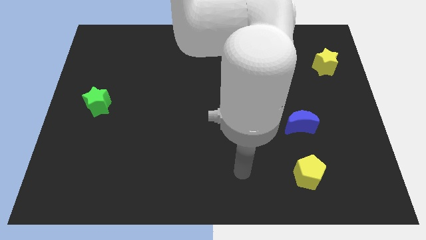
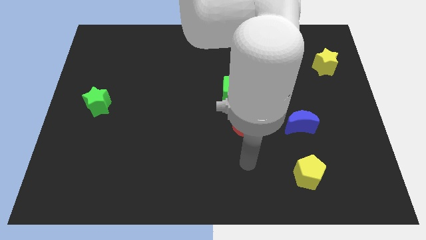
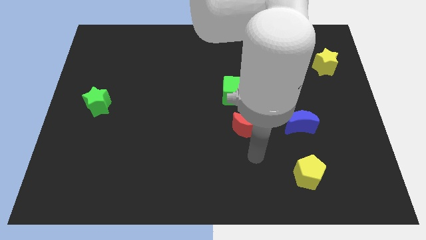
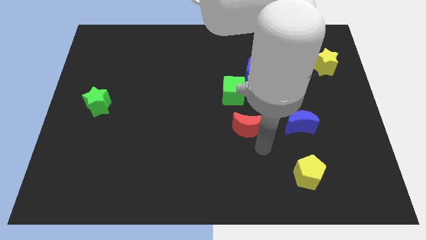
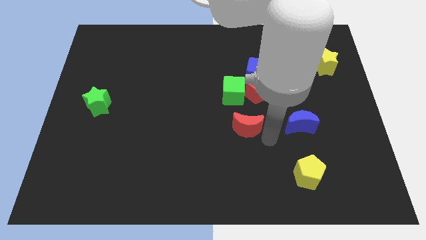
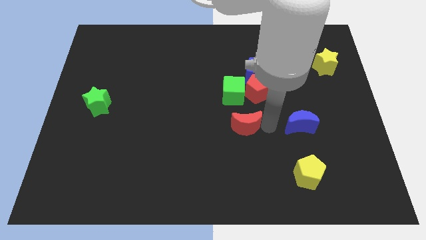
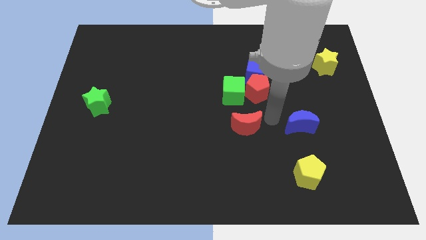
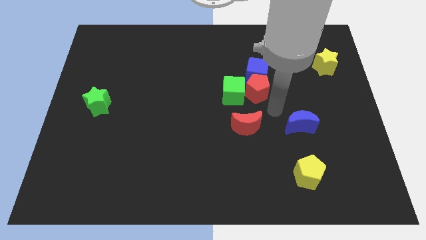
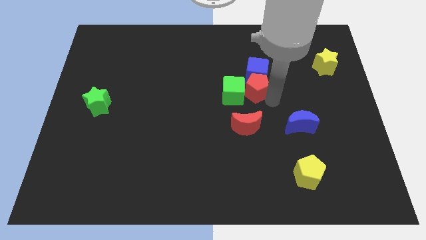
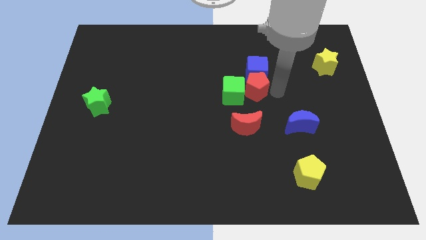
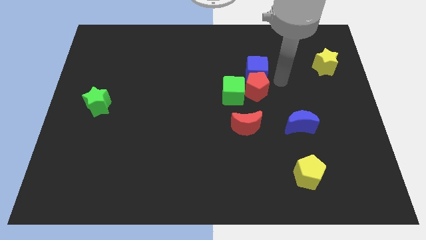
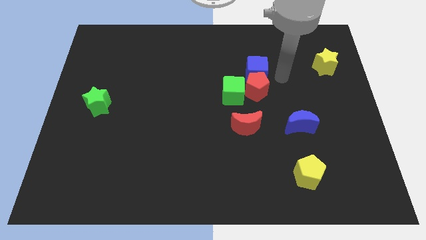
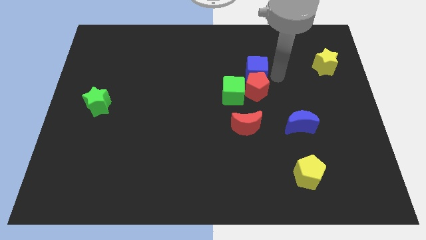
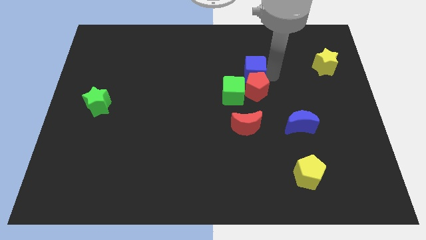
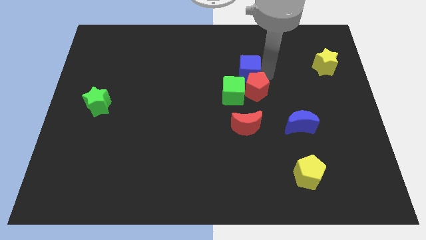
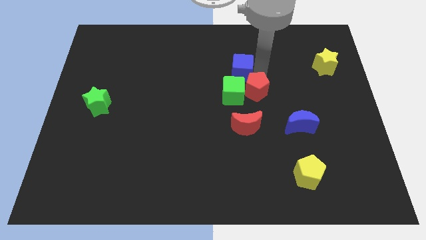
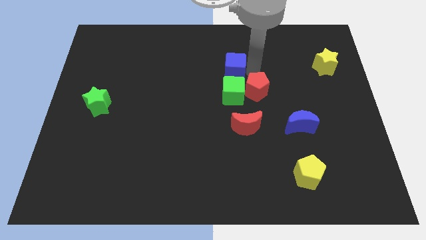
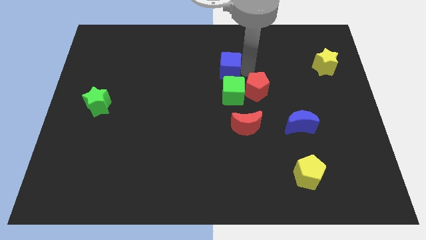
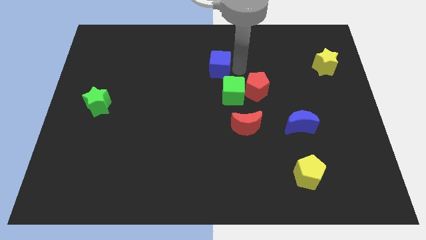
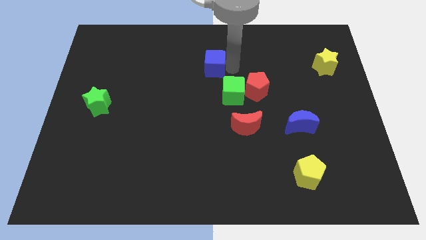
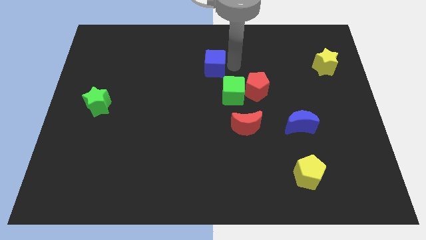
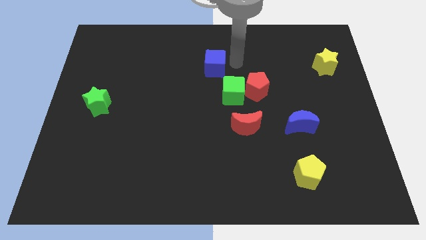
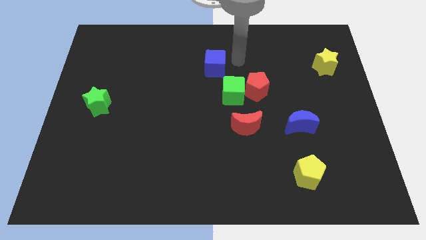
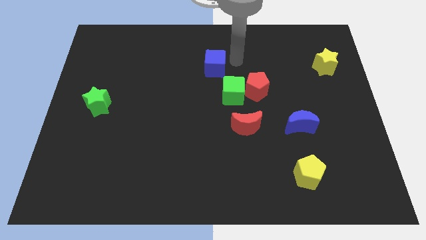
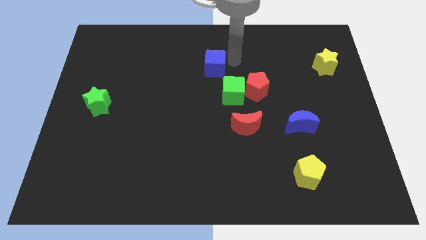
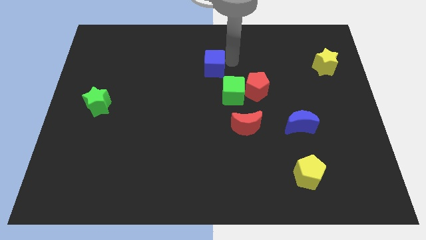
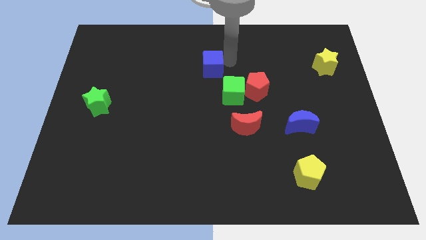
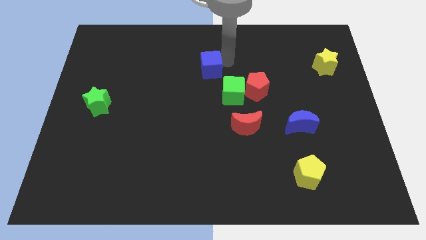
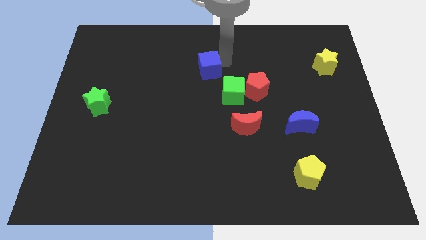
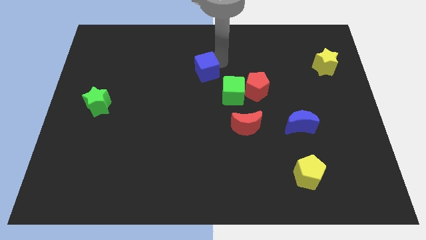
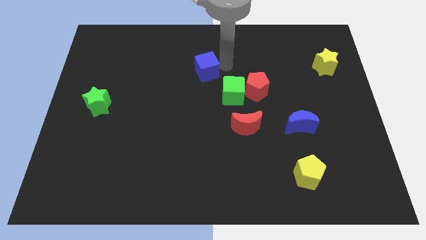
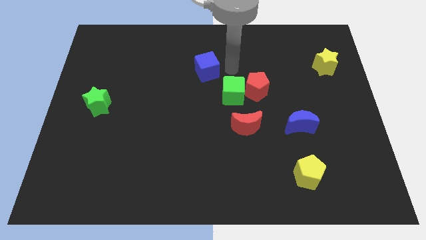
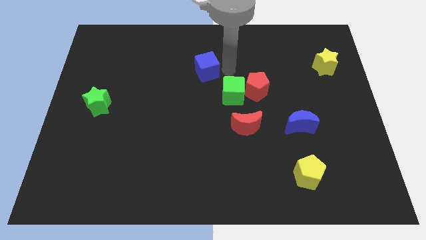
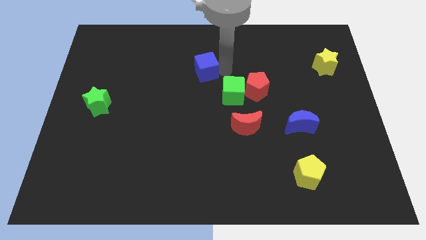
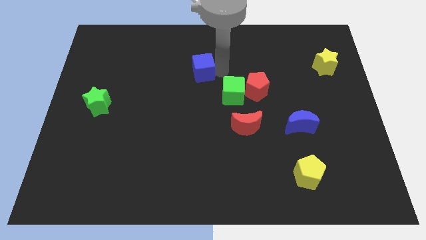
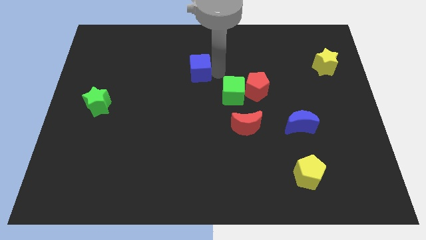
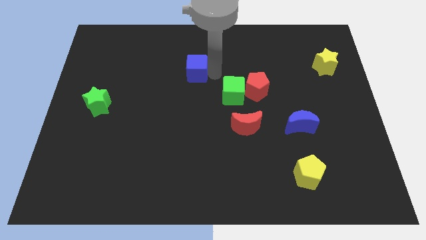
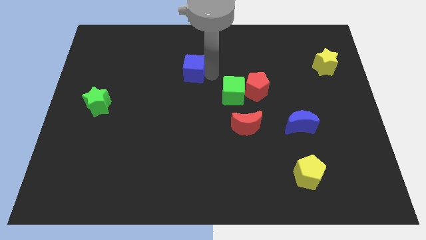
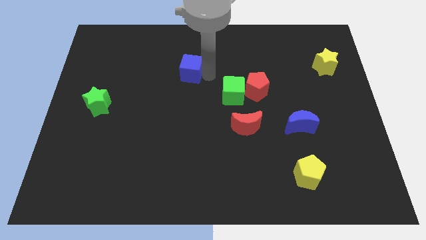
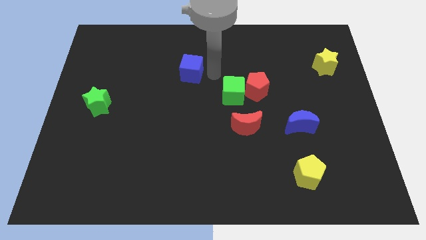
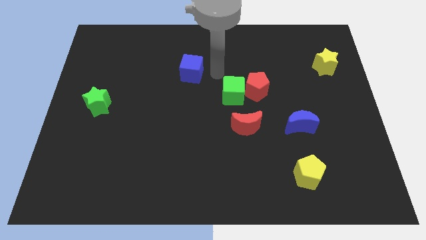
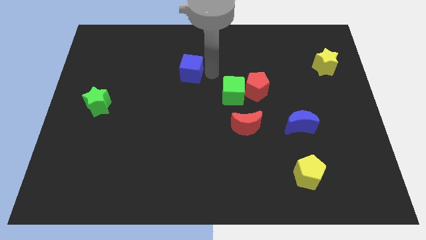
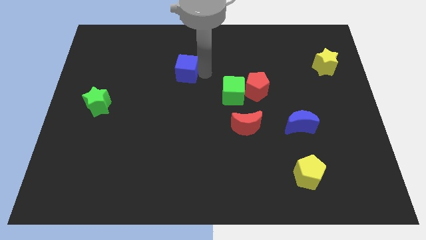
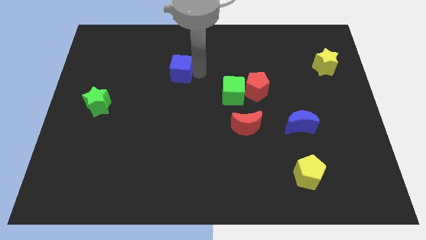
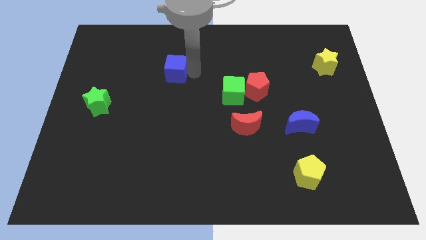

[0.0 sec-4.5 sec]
slide the blue cube left

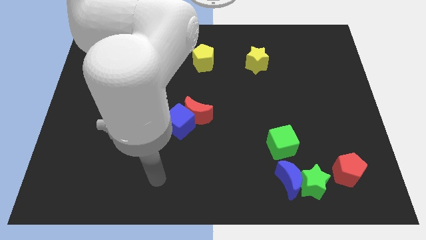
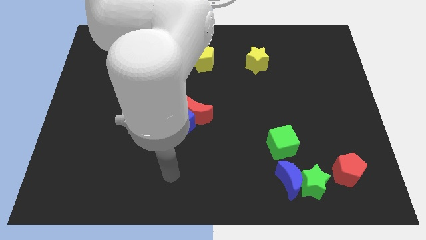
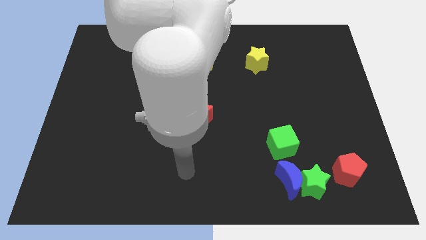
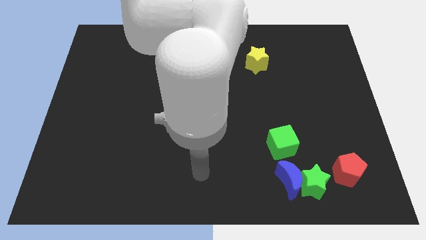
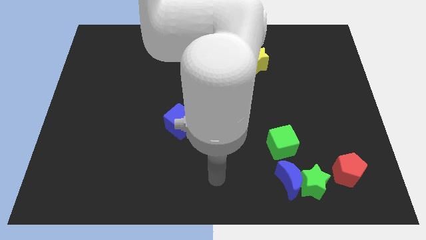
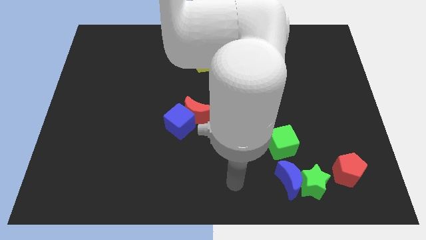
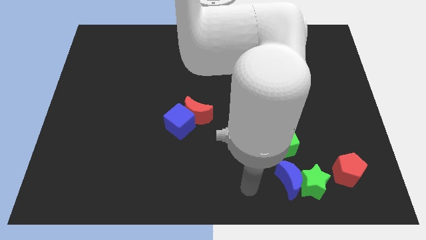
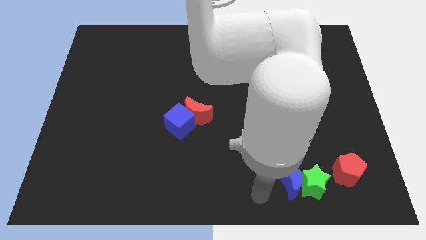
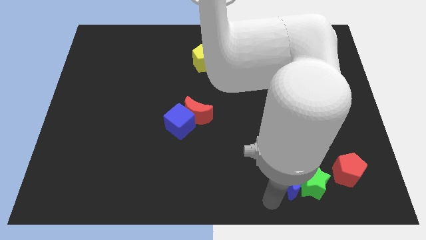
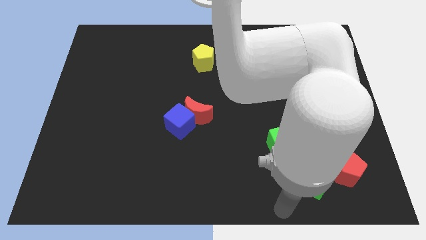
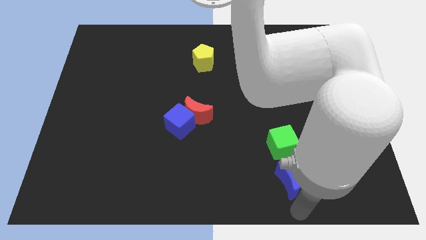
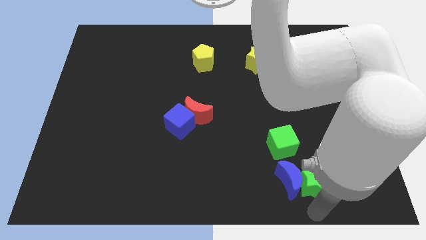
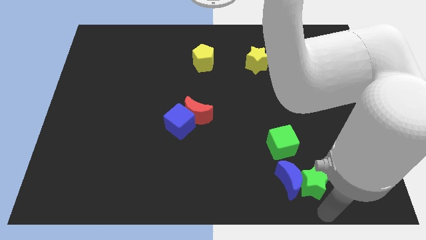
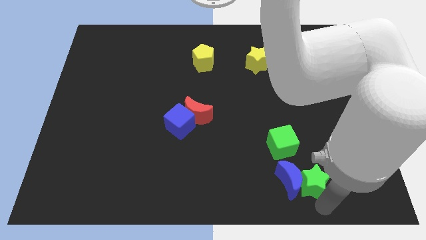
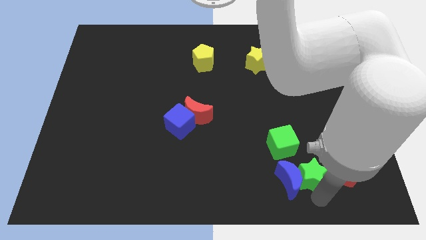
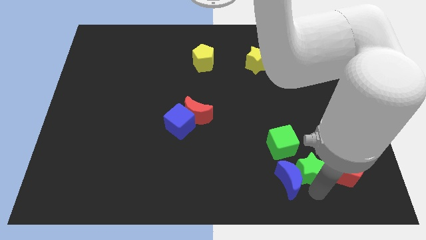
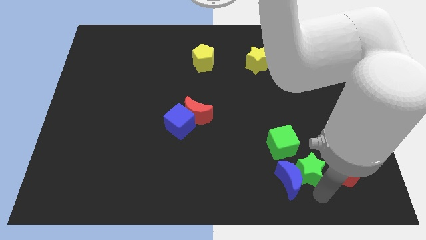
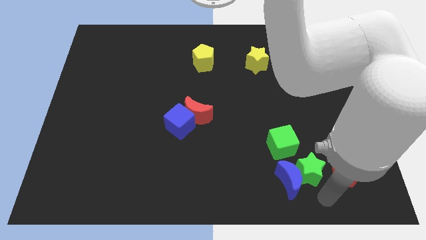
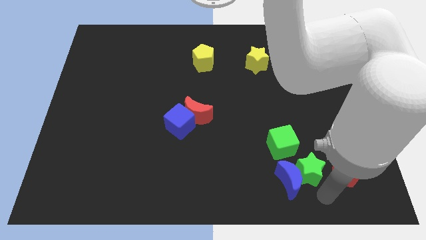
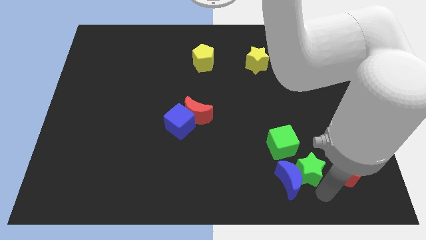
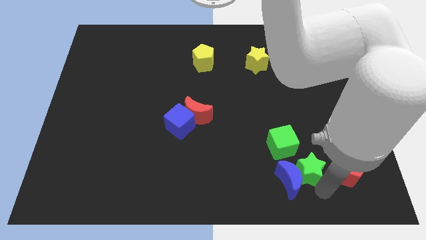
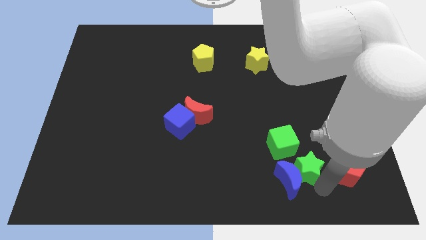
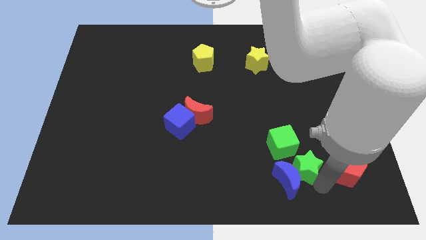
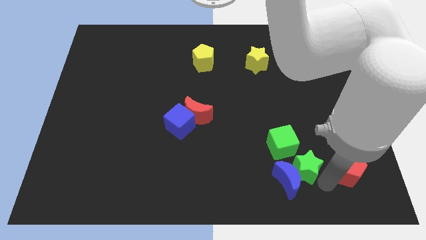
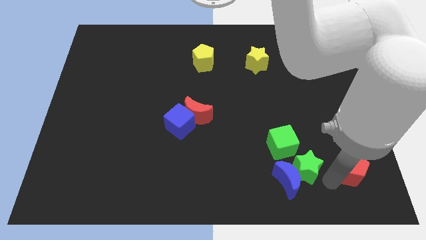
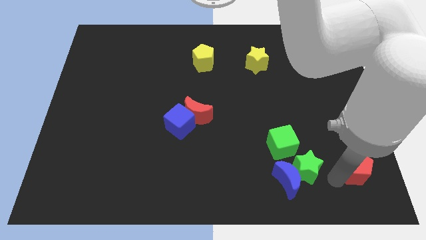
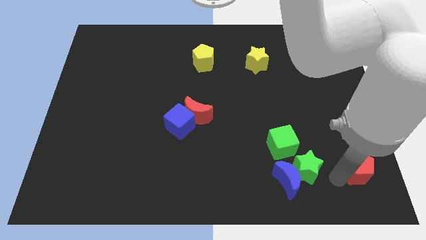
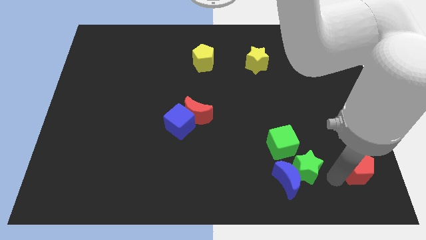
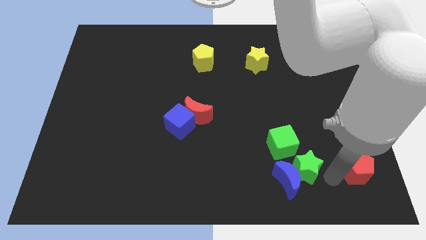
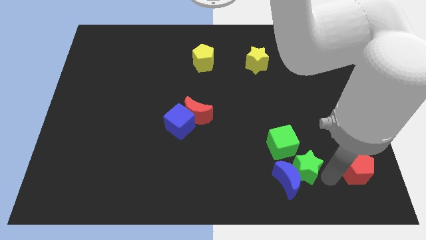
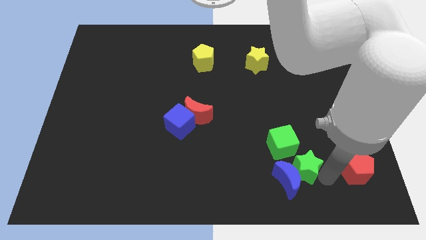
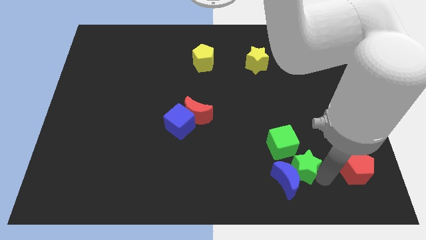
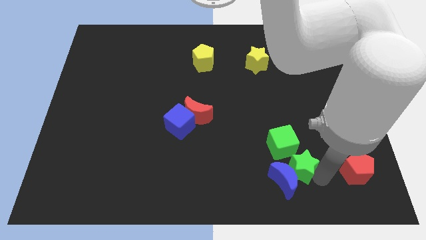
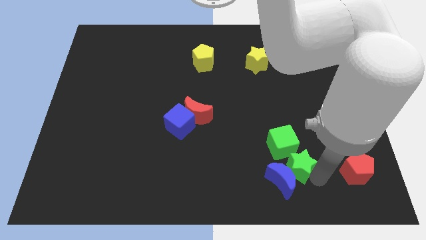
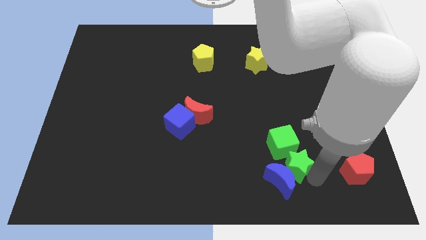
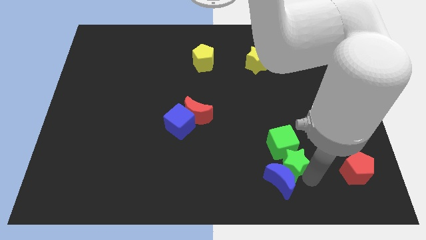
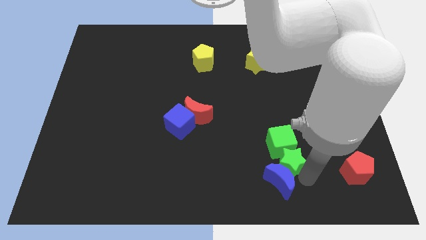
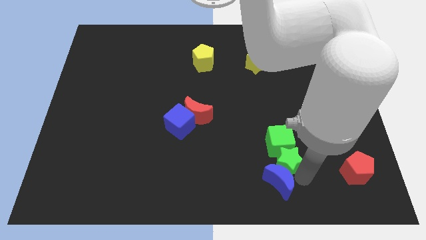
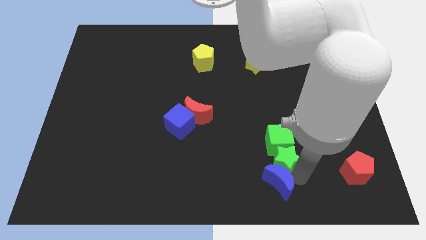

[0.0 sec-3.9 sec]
move the green star diagonally upwards and to the left slightly
